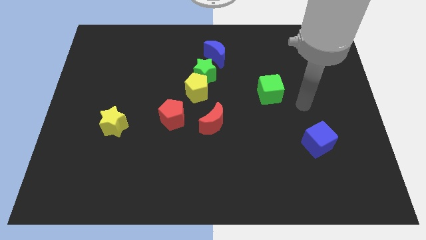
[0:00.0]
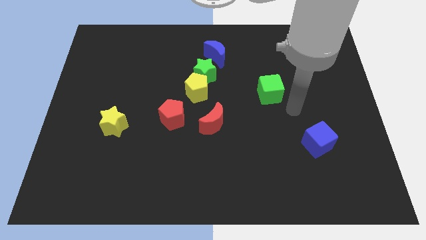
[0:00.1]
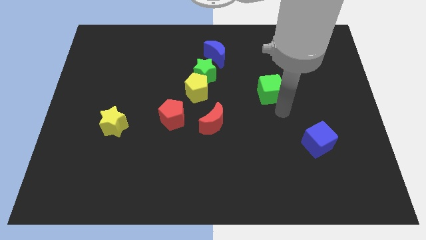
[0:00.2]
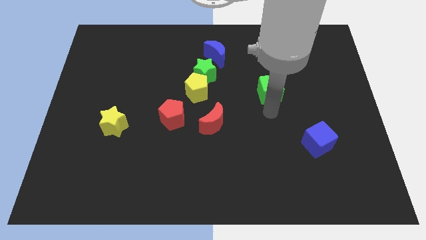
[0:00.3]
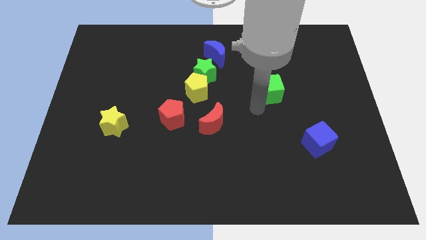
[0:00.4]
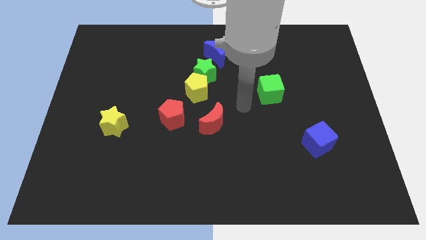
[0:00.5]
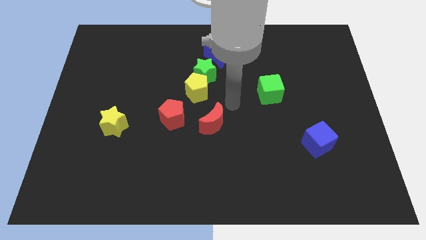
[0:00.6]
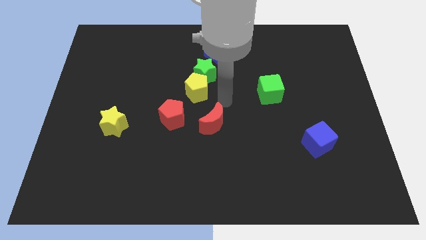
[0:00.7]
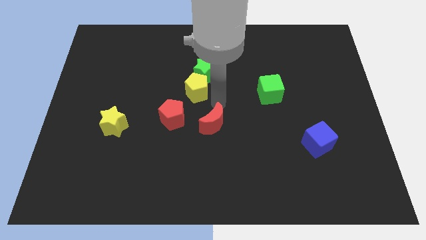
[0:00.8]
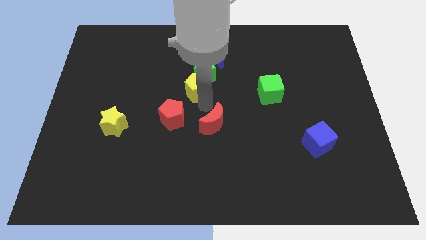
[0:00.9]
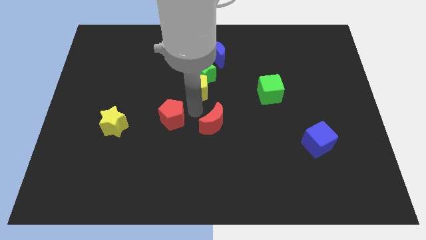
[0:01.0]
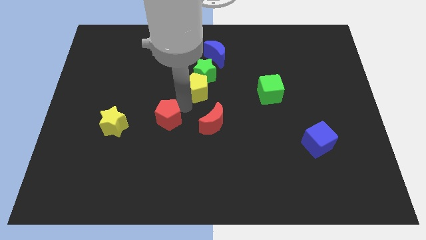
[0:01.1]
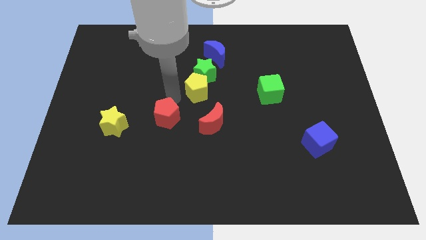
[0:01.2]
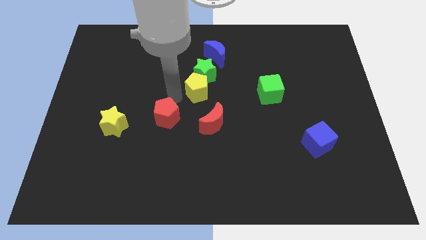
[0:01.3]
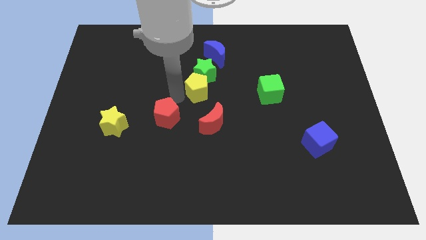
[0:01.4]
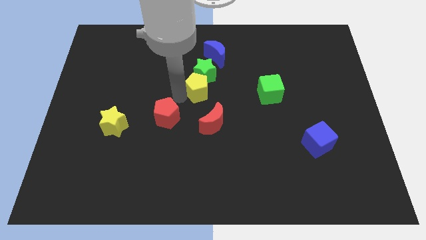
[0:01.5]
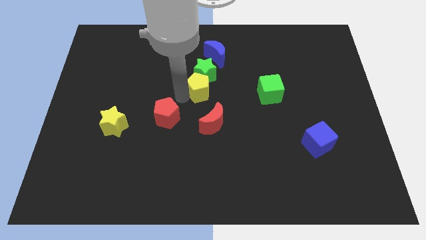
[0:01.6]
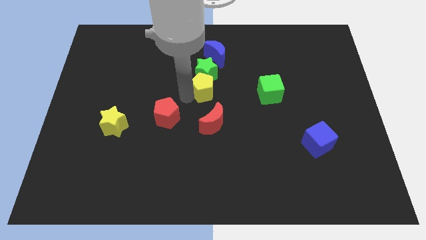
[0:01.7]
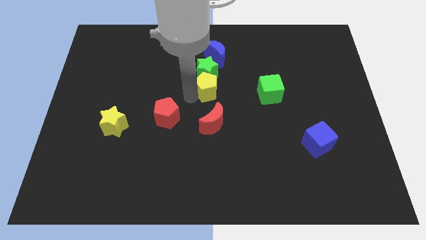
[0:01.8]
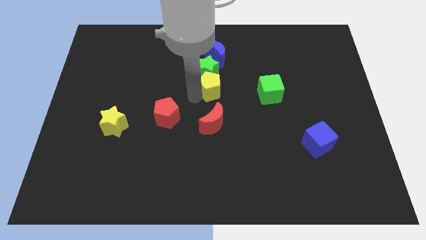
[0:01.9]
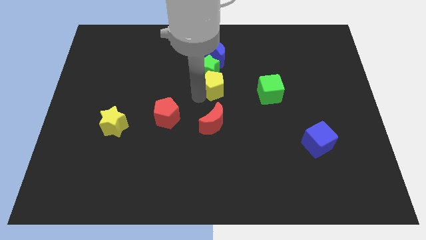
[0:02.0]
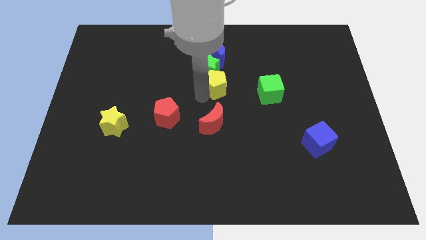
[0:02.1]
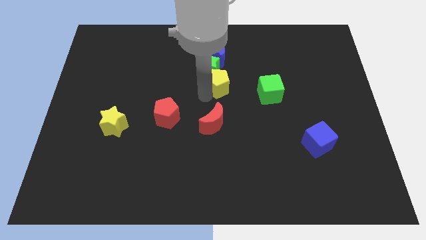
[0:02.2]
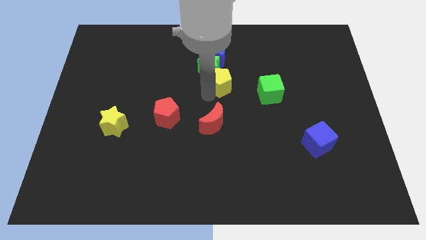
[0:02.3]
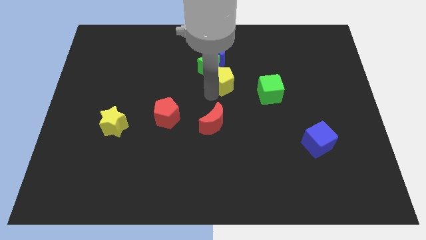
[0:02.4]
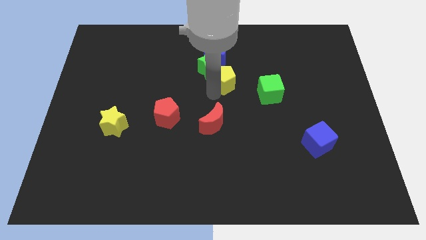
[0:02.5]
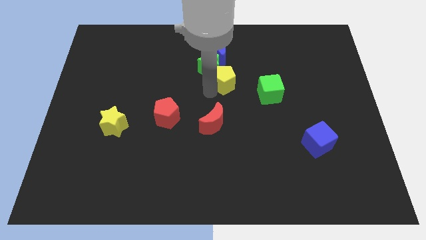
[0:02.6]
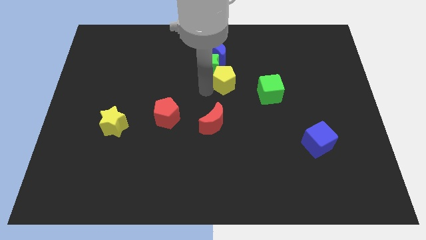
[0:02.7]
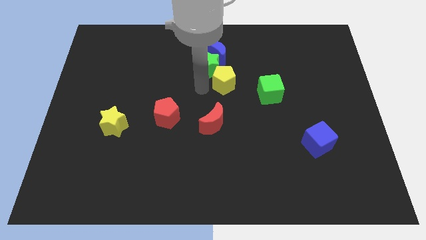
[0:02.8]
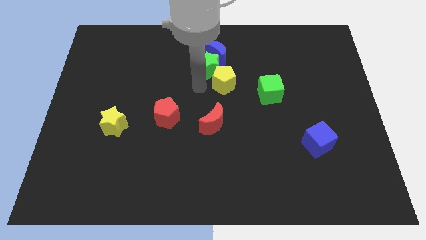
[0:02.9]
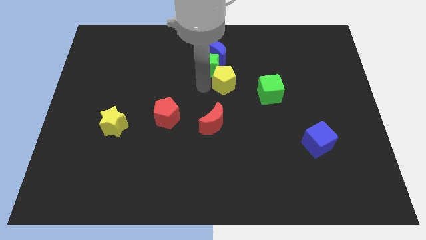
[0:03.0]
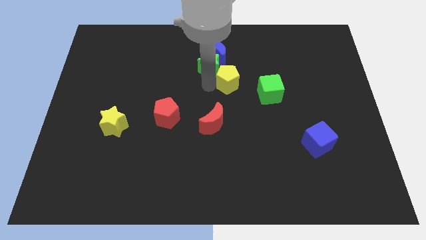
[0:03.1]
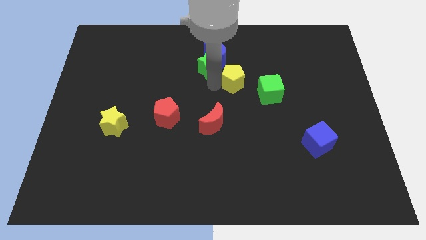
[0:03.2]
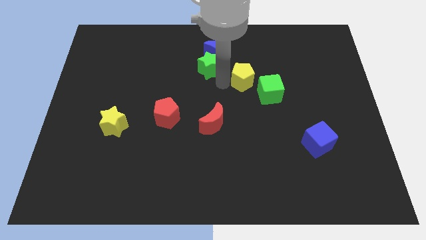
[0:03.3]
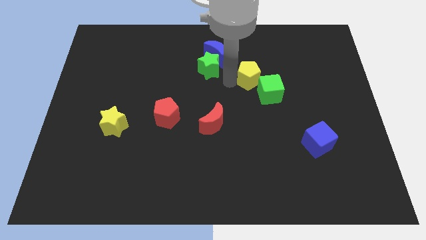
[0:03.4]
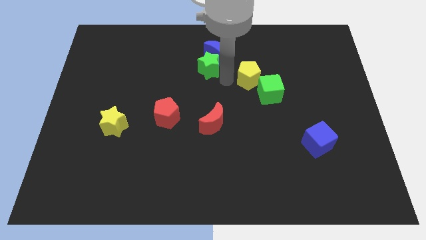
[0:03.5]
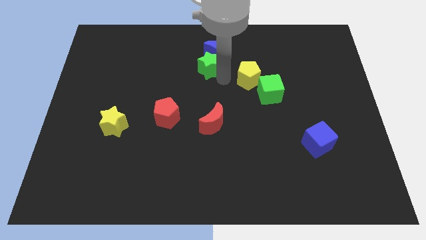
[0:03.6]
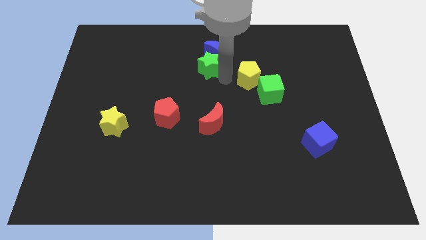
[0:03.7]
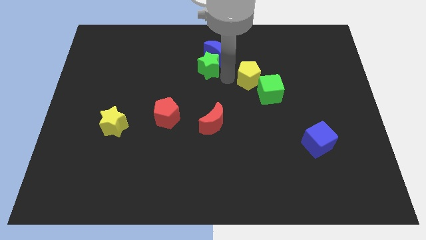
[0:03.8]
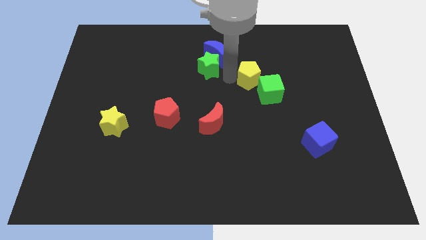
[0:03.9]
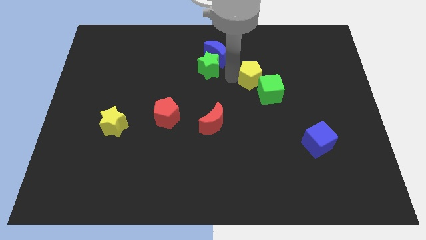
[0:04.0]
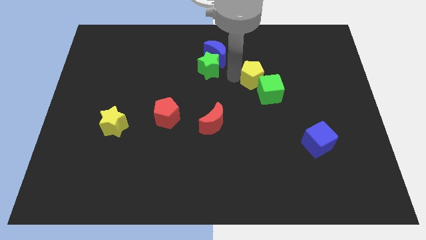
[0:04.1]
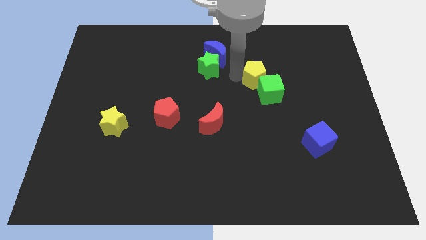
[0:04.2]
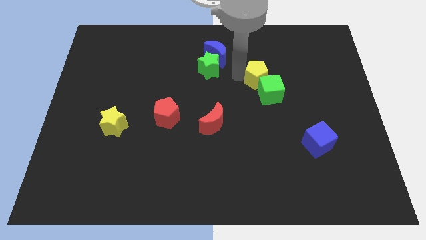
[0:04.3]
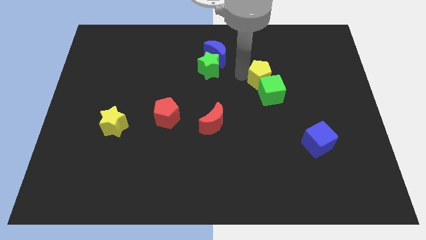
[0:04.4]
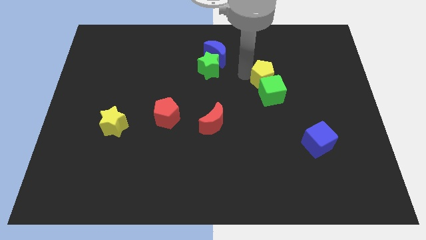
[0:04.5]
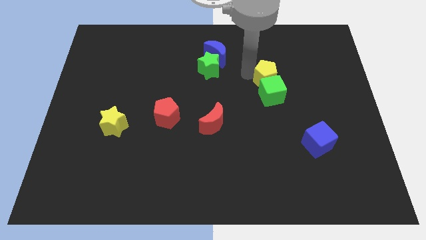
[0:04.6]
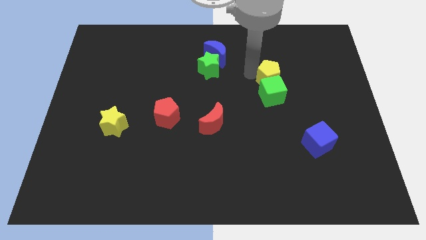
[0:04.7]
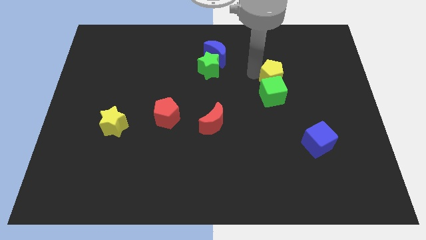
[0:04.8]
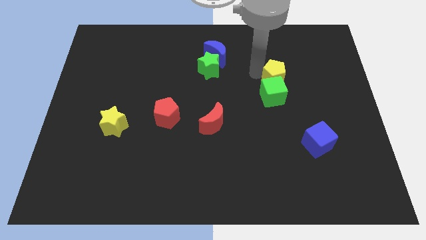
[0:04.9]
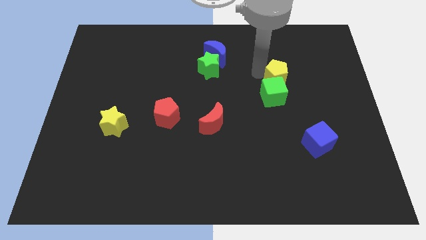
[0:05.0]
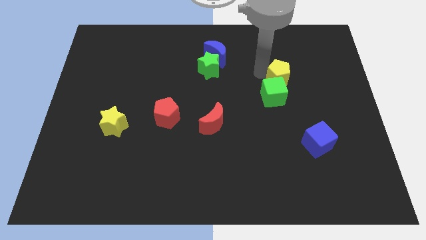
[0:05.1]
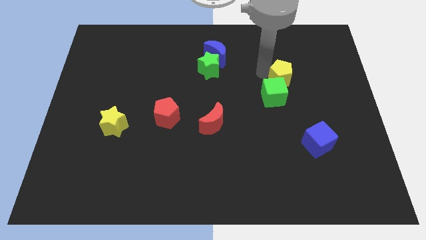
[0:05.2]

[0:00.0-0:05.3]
move the yellow pentagon right

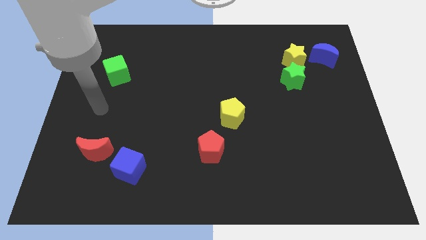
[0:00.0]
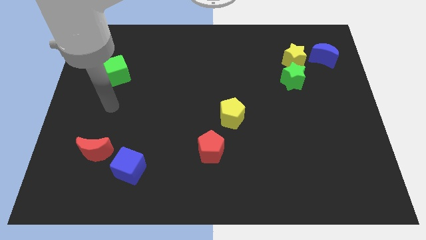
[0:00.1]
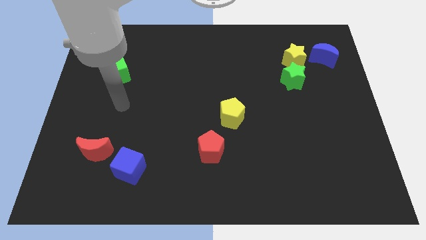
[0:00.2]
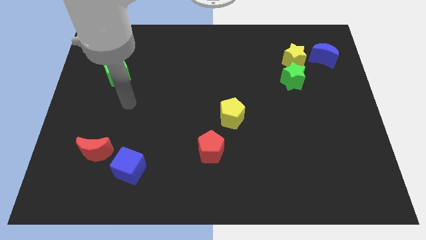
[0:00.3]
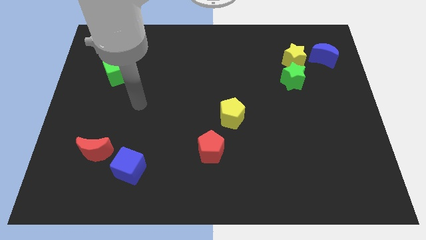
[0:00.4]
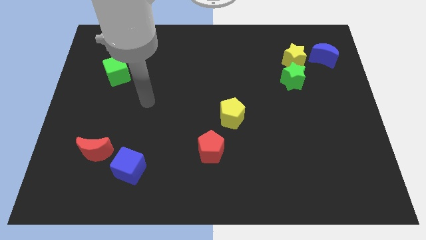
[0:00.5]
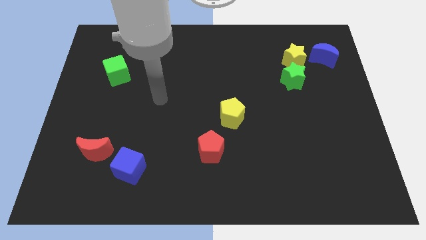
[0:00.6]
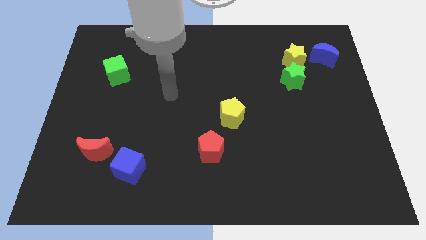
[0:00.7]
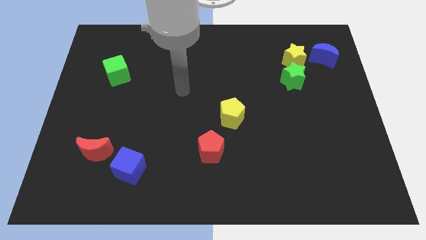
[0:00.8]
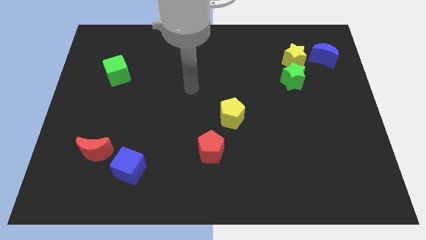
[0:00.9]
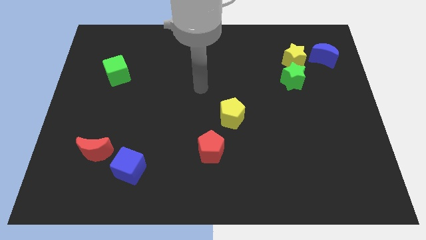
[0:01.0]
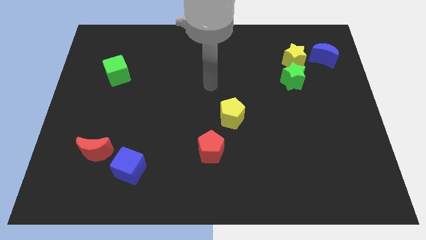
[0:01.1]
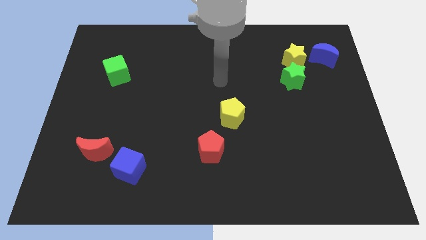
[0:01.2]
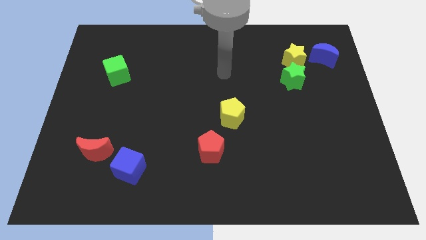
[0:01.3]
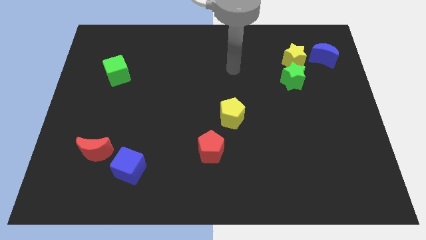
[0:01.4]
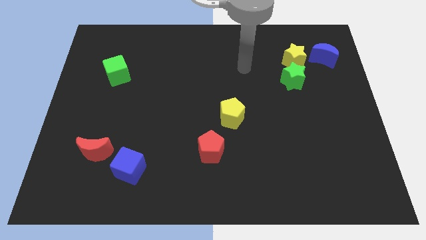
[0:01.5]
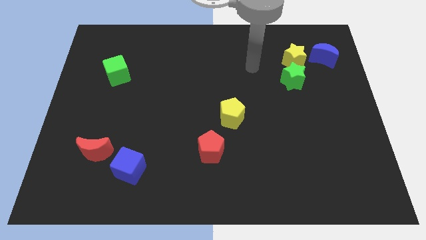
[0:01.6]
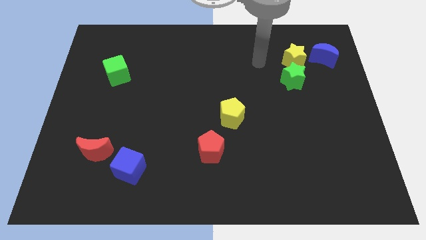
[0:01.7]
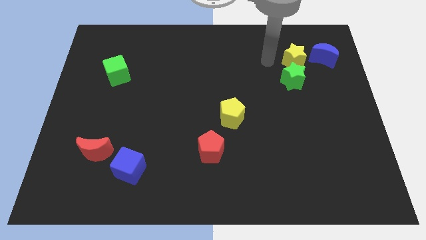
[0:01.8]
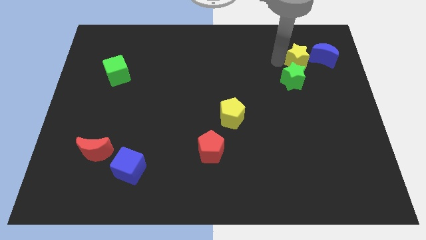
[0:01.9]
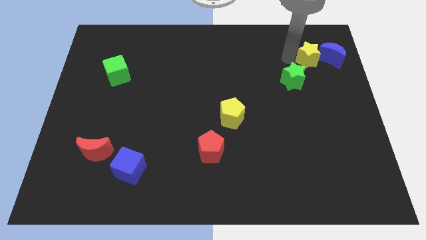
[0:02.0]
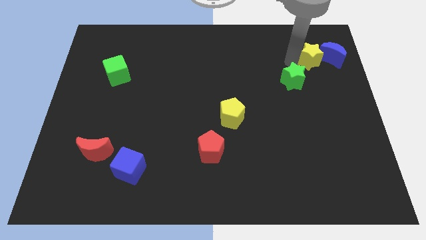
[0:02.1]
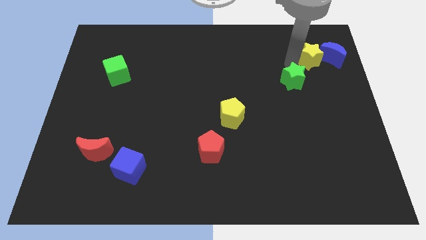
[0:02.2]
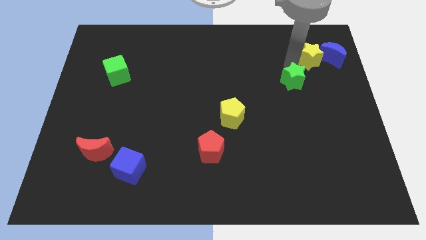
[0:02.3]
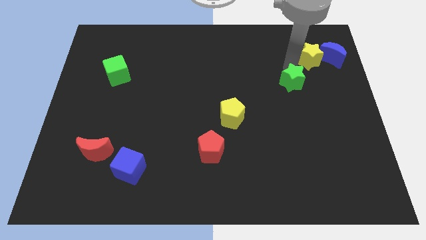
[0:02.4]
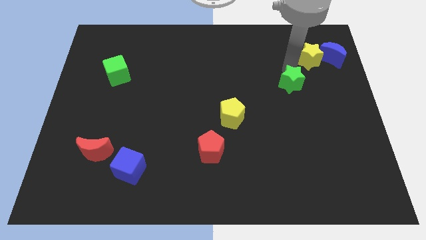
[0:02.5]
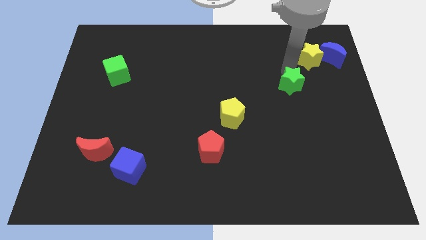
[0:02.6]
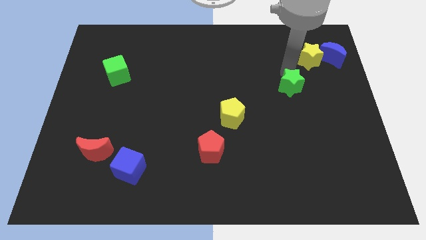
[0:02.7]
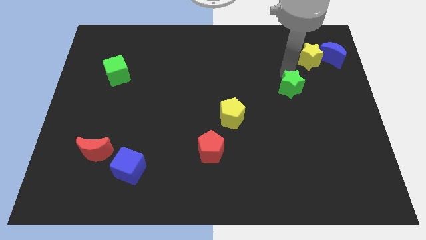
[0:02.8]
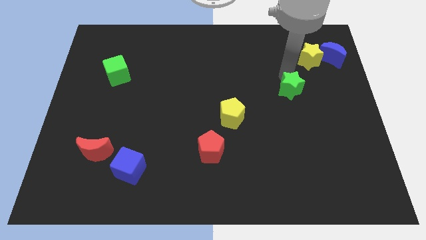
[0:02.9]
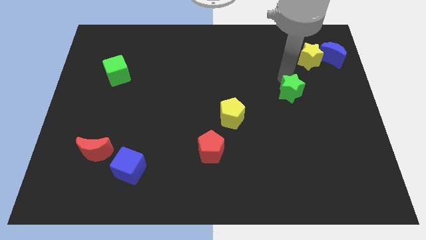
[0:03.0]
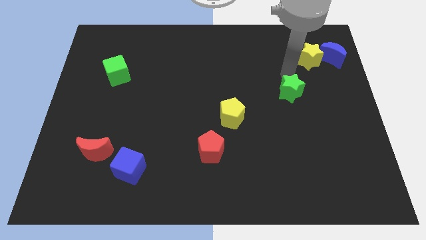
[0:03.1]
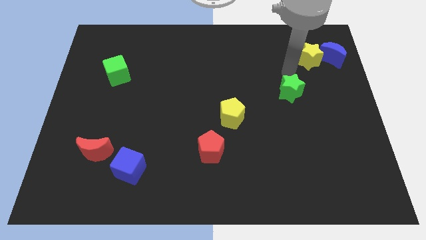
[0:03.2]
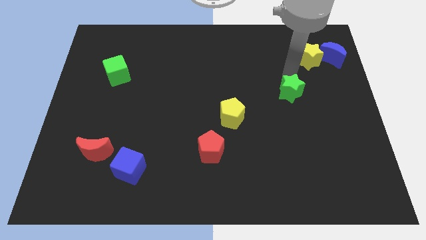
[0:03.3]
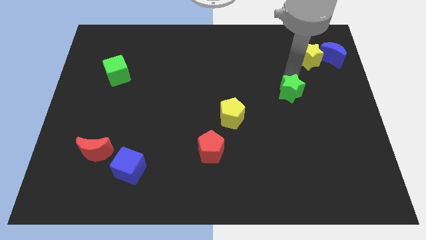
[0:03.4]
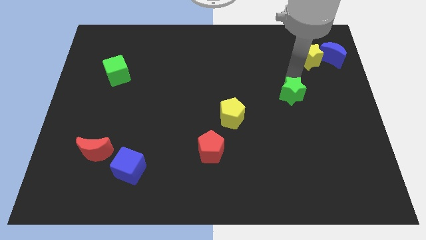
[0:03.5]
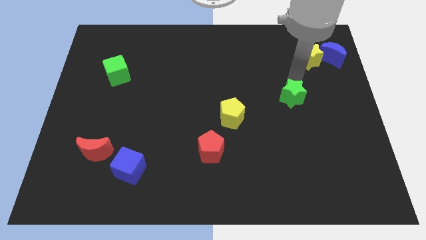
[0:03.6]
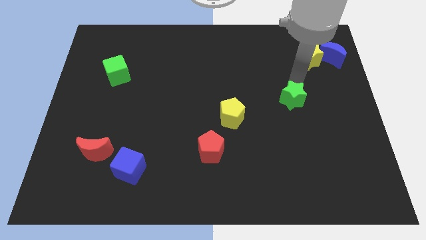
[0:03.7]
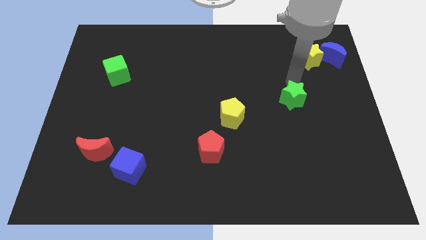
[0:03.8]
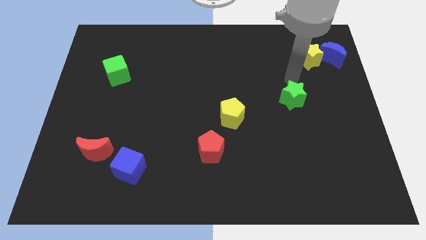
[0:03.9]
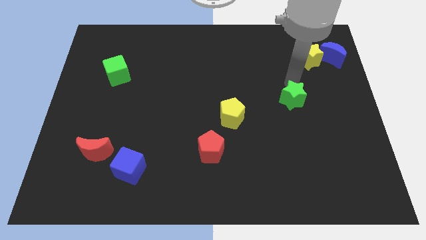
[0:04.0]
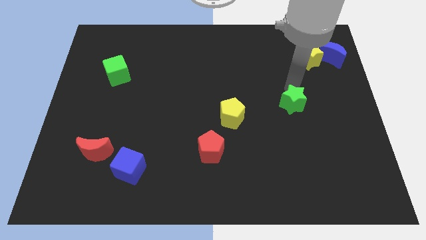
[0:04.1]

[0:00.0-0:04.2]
slightly move the green star down
